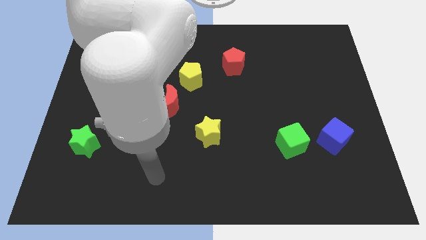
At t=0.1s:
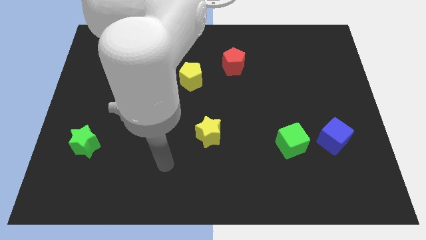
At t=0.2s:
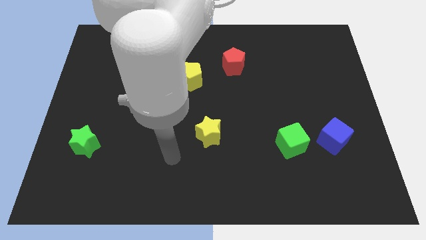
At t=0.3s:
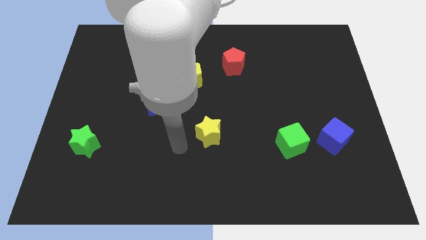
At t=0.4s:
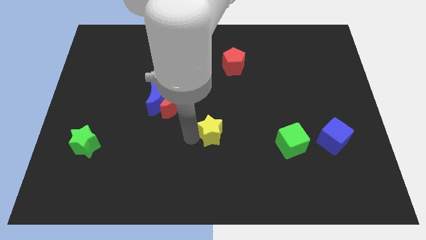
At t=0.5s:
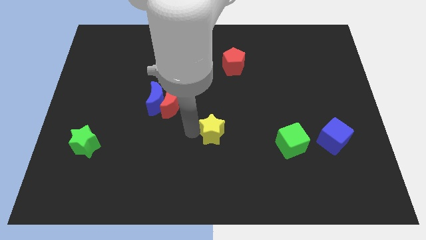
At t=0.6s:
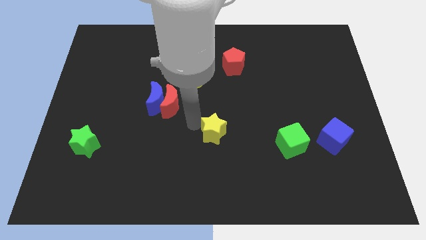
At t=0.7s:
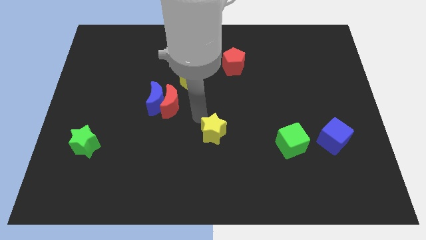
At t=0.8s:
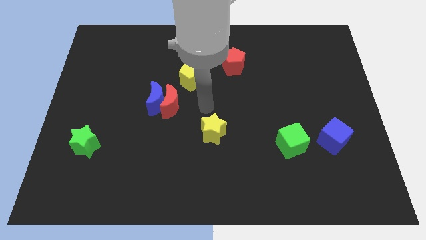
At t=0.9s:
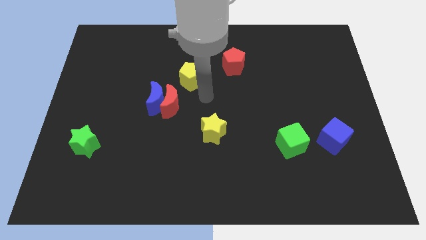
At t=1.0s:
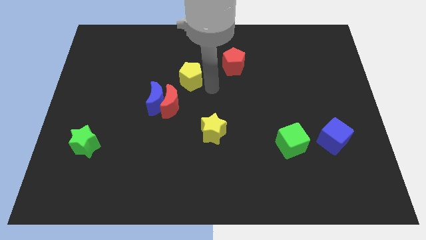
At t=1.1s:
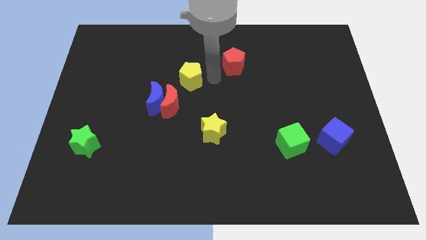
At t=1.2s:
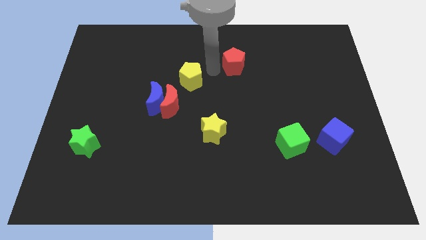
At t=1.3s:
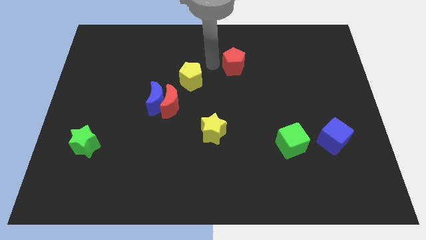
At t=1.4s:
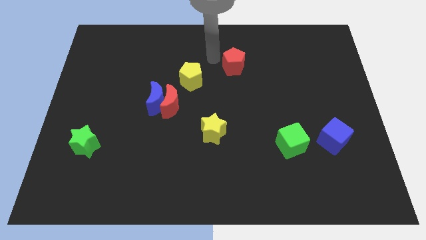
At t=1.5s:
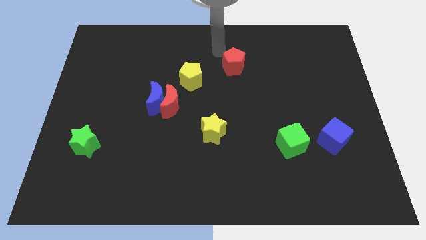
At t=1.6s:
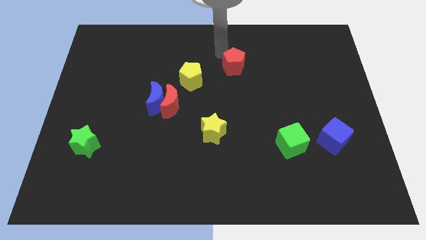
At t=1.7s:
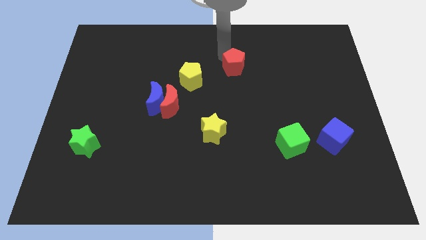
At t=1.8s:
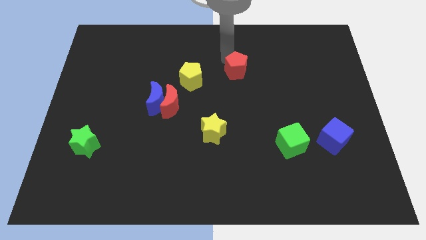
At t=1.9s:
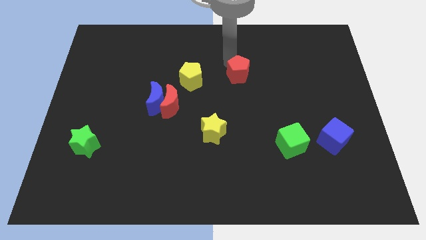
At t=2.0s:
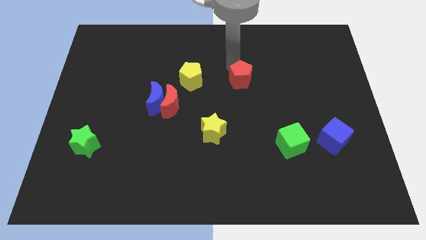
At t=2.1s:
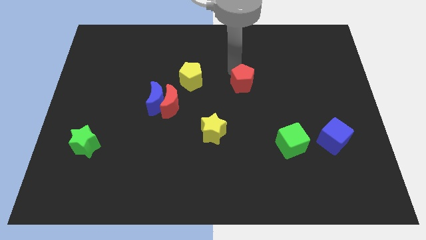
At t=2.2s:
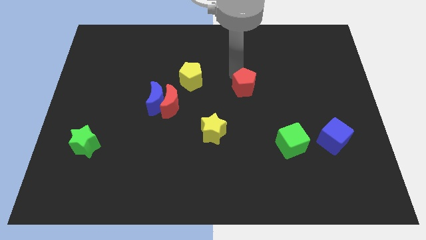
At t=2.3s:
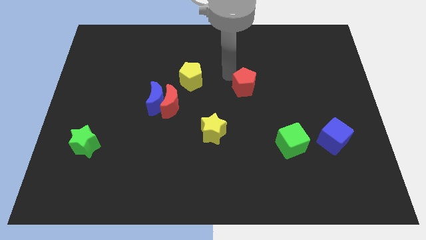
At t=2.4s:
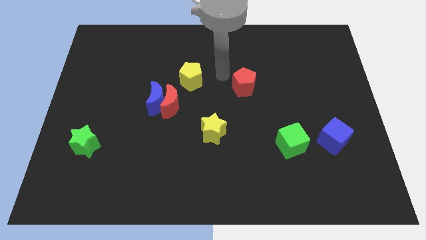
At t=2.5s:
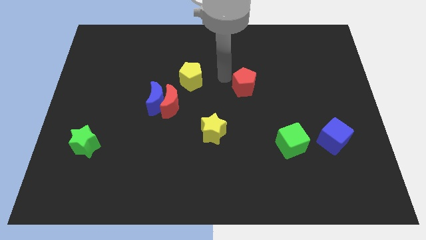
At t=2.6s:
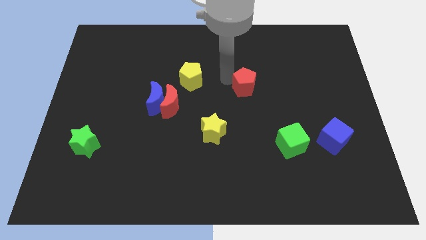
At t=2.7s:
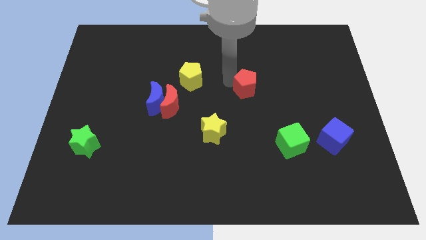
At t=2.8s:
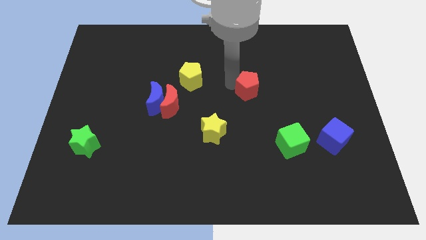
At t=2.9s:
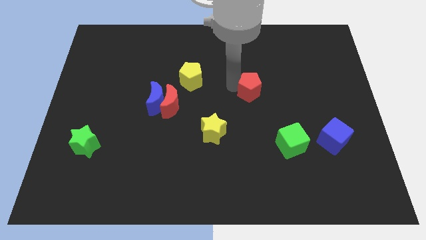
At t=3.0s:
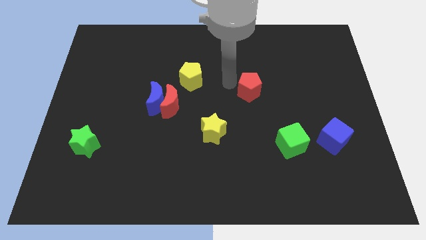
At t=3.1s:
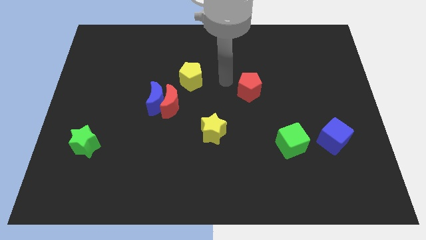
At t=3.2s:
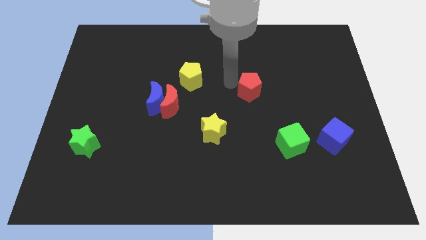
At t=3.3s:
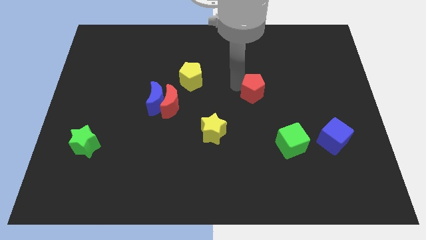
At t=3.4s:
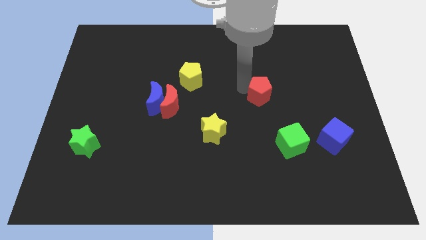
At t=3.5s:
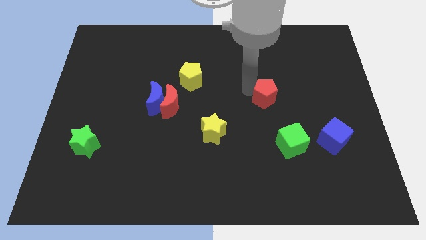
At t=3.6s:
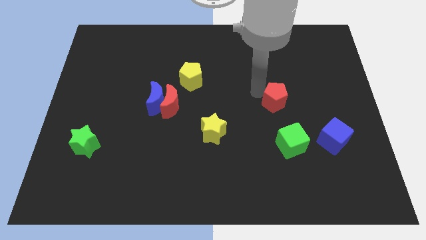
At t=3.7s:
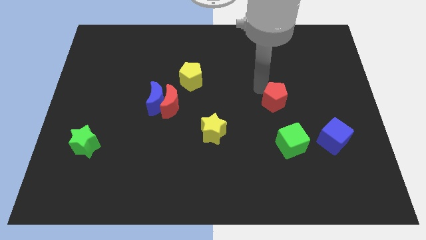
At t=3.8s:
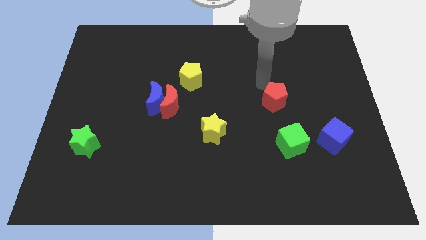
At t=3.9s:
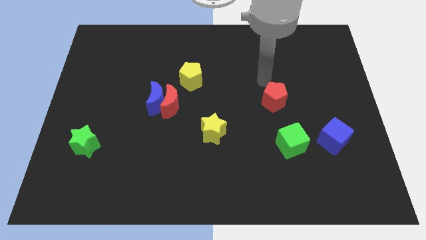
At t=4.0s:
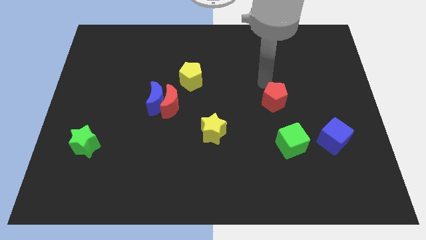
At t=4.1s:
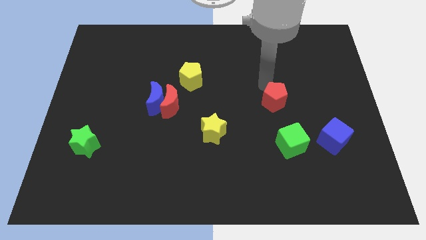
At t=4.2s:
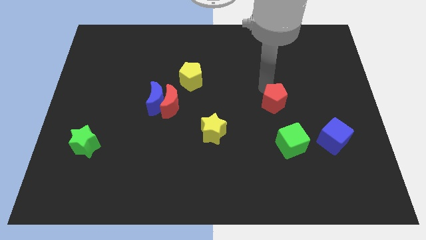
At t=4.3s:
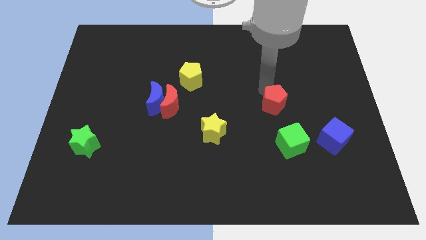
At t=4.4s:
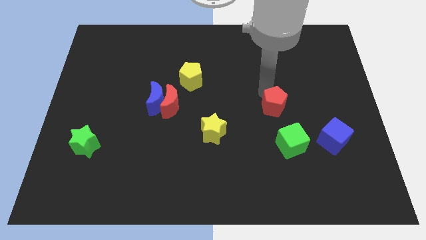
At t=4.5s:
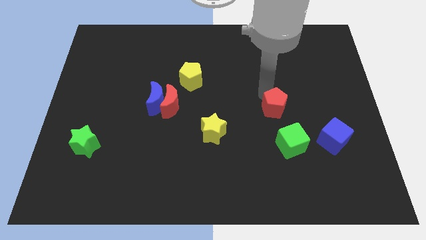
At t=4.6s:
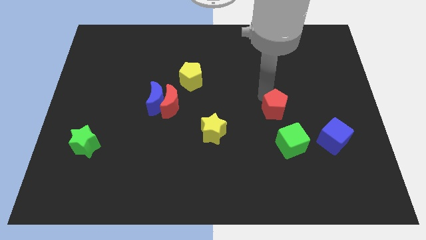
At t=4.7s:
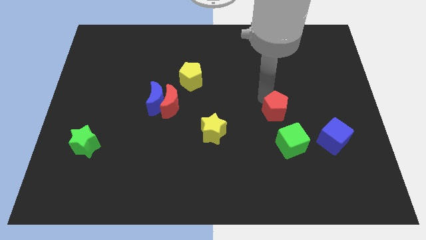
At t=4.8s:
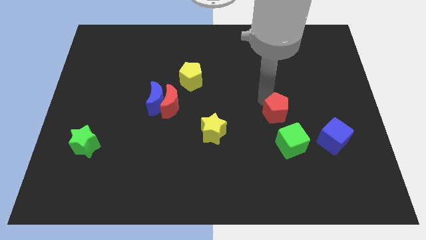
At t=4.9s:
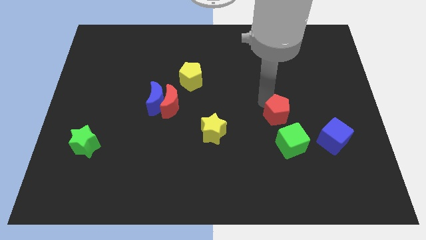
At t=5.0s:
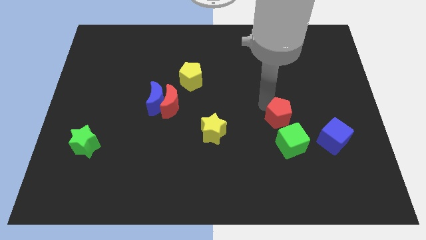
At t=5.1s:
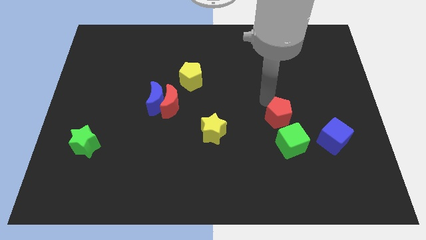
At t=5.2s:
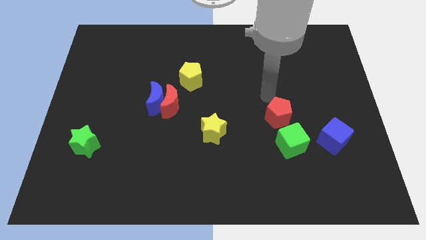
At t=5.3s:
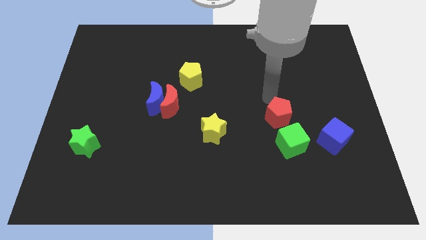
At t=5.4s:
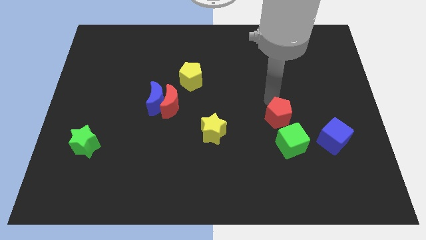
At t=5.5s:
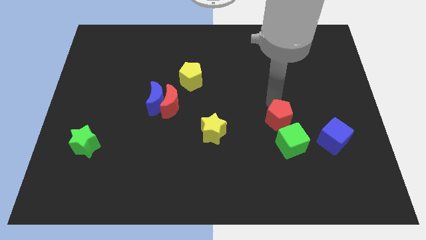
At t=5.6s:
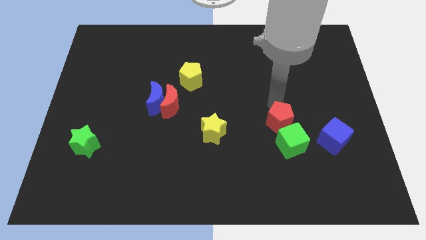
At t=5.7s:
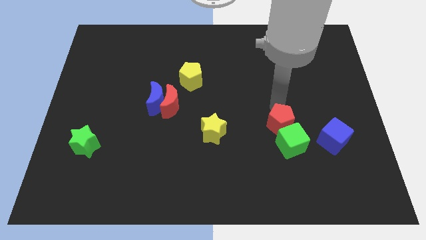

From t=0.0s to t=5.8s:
push the red pentagon next to the green cube
